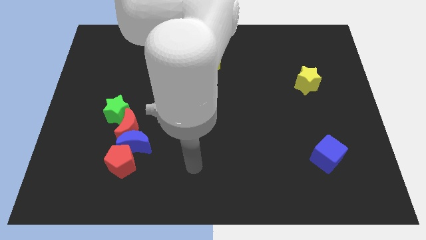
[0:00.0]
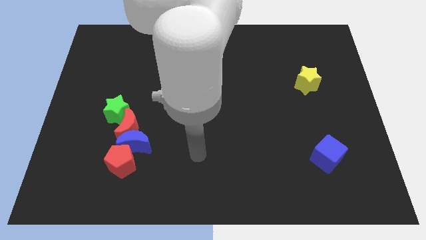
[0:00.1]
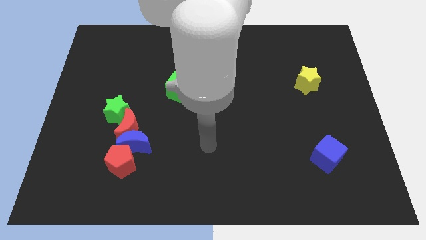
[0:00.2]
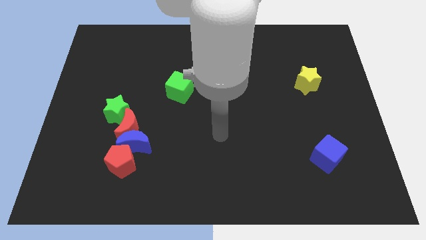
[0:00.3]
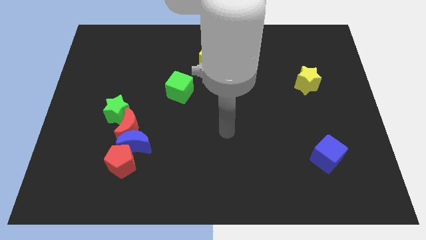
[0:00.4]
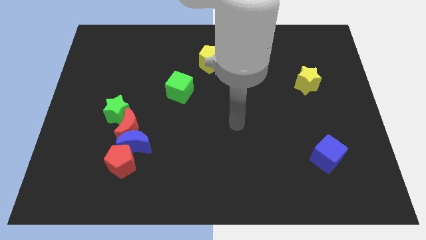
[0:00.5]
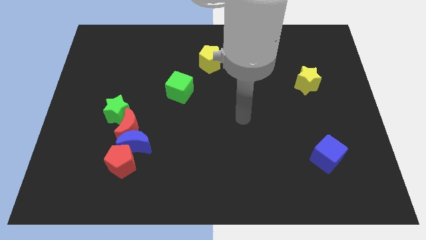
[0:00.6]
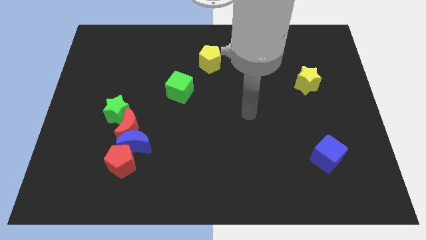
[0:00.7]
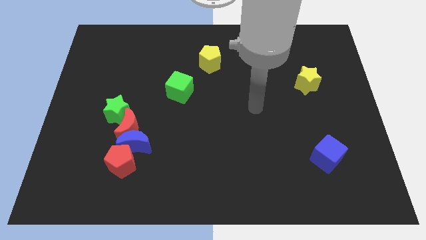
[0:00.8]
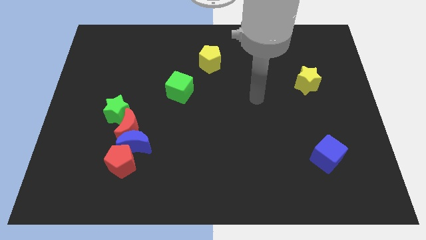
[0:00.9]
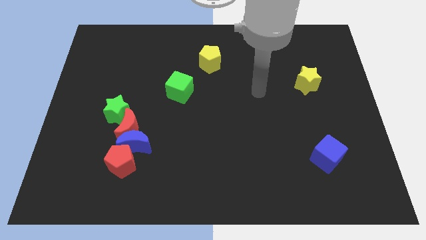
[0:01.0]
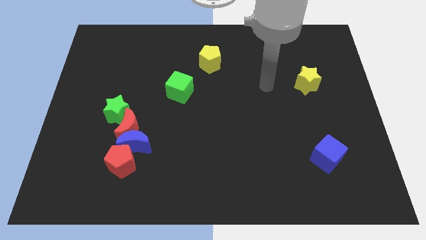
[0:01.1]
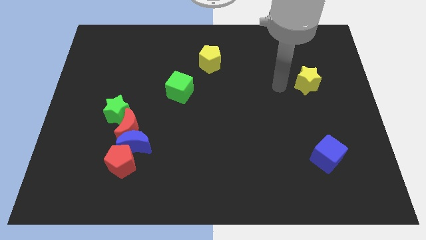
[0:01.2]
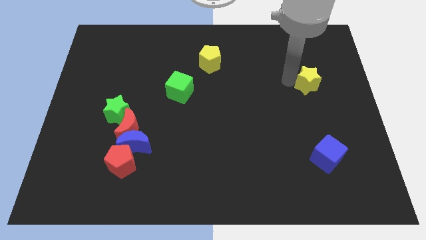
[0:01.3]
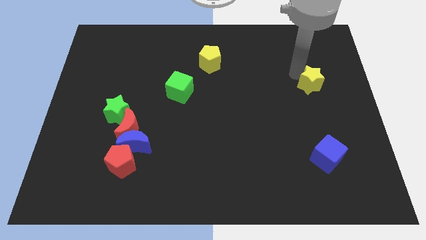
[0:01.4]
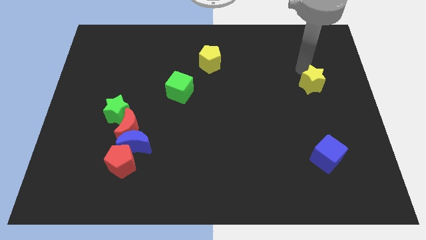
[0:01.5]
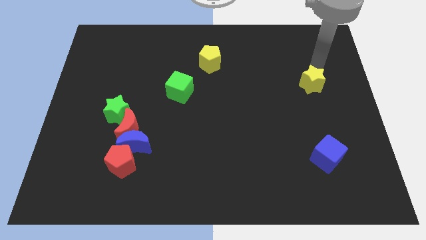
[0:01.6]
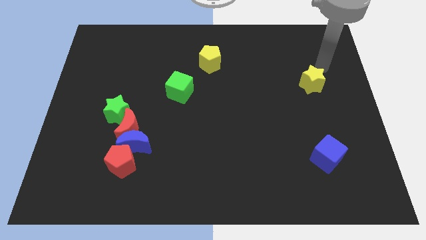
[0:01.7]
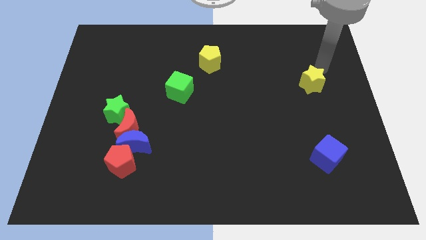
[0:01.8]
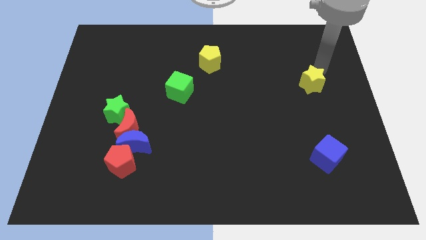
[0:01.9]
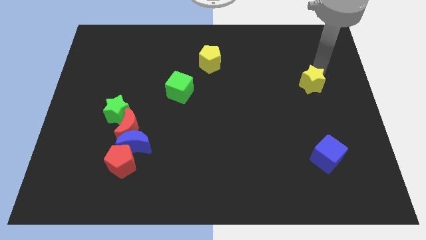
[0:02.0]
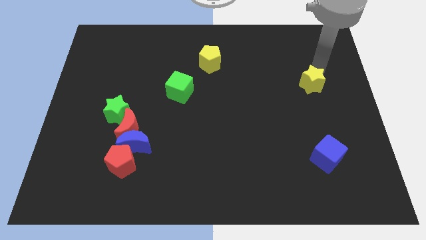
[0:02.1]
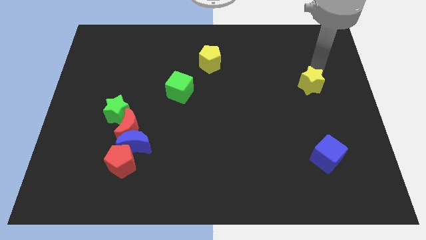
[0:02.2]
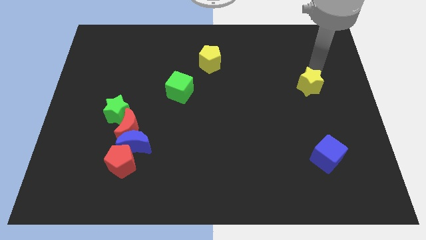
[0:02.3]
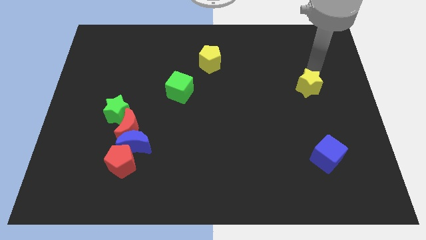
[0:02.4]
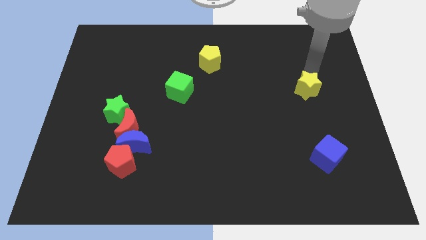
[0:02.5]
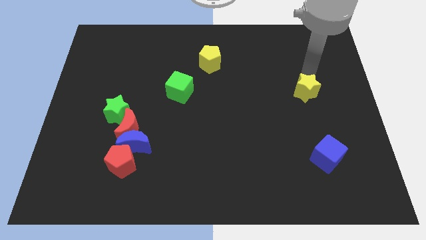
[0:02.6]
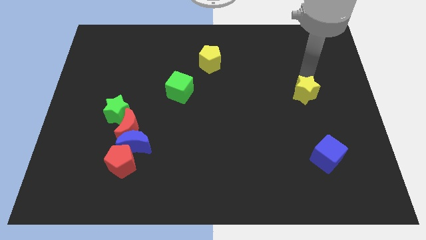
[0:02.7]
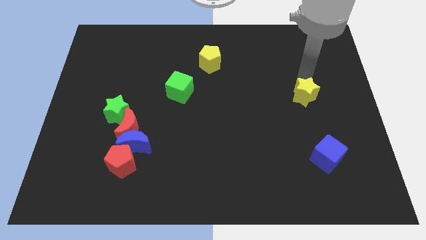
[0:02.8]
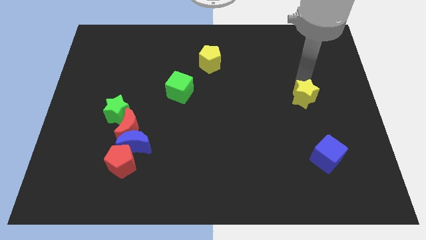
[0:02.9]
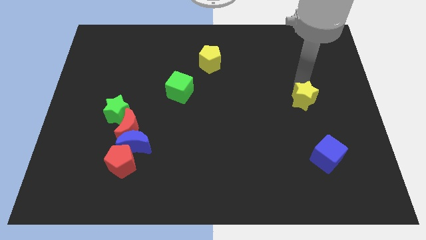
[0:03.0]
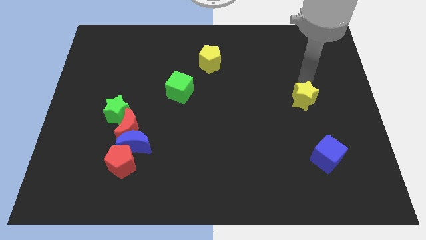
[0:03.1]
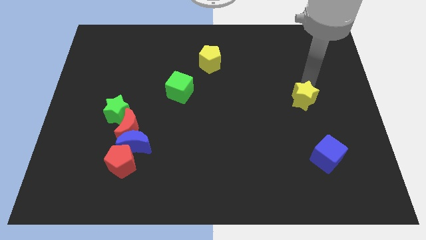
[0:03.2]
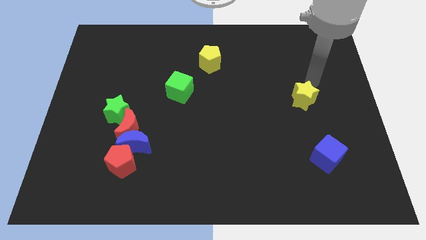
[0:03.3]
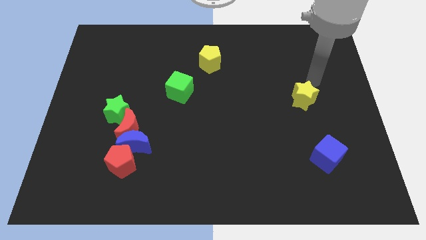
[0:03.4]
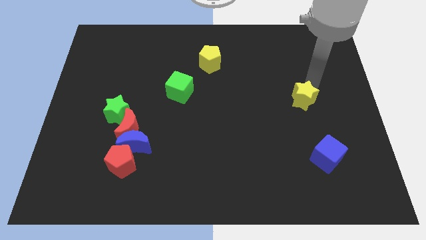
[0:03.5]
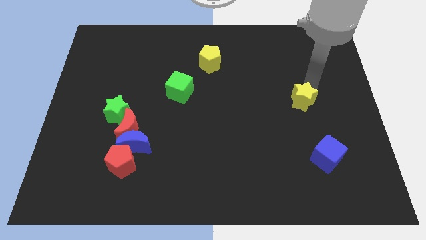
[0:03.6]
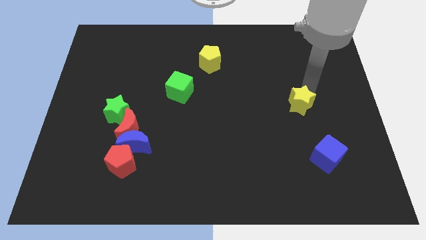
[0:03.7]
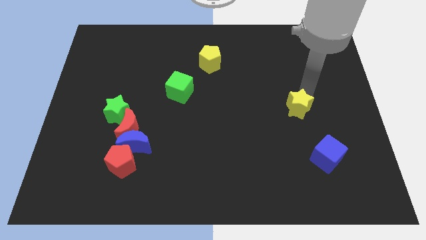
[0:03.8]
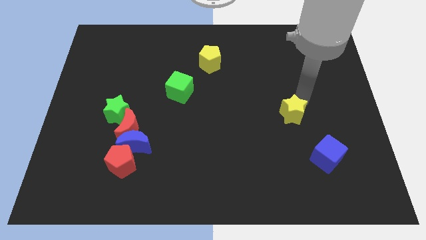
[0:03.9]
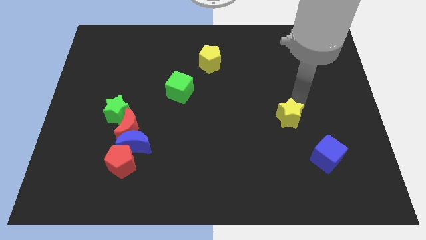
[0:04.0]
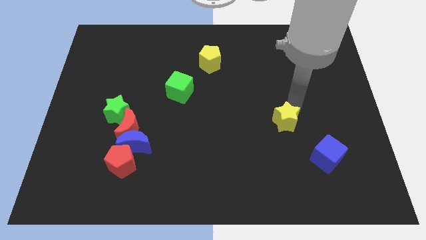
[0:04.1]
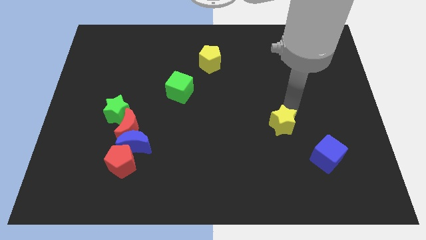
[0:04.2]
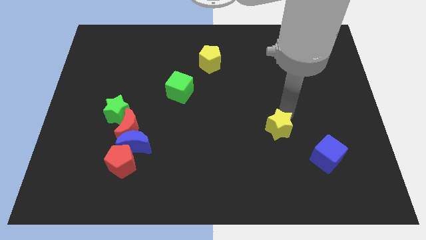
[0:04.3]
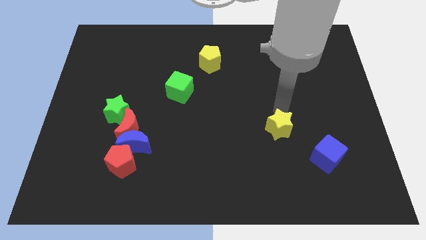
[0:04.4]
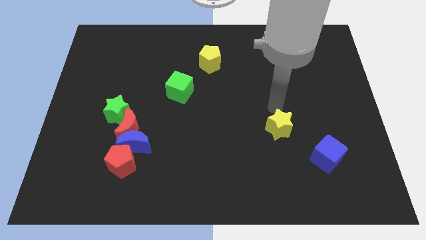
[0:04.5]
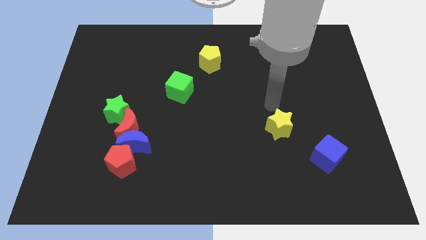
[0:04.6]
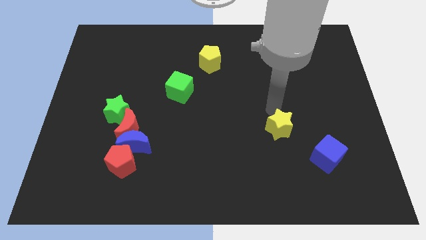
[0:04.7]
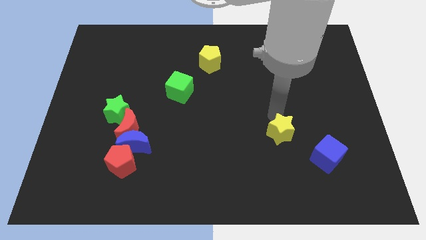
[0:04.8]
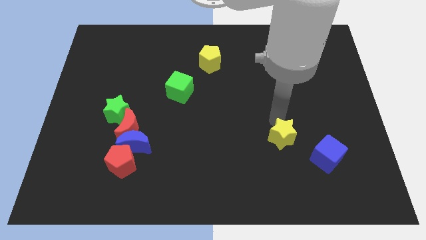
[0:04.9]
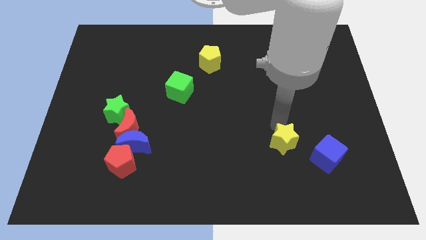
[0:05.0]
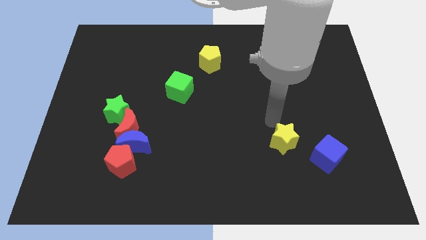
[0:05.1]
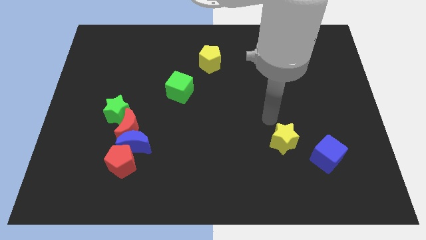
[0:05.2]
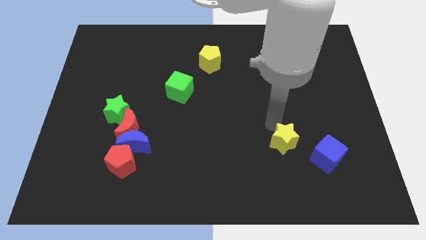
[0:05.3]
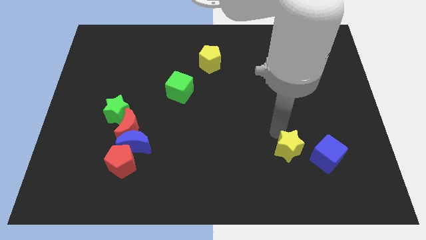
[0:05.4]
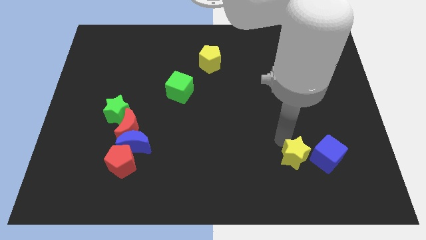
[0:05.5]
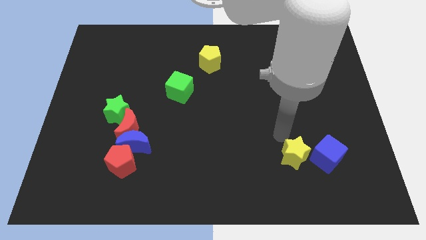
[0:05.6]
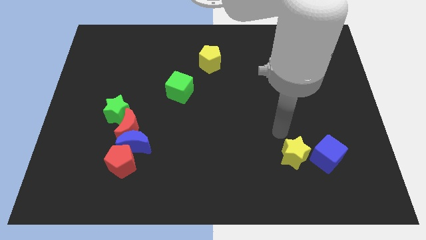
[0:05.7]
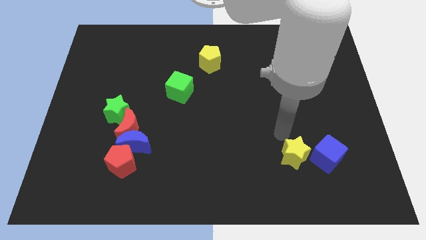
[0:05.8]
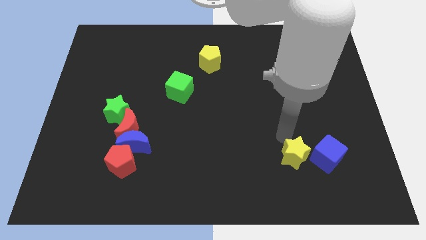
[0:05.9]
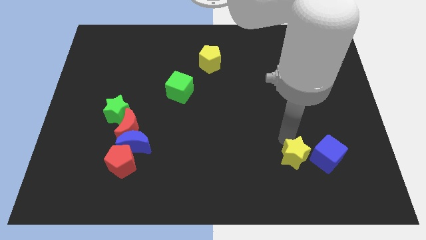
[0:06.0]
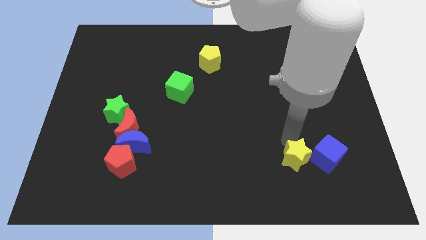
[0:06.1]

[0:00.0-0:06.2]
put the yellow star to the bottom left of the blue cube

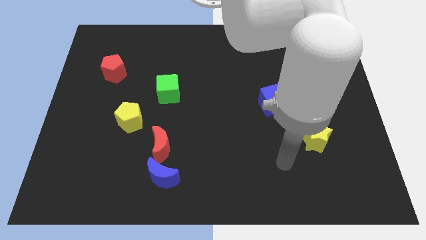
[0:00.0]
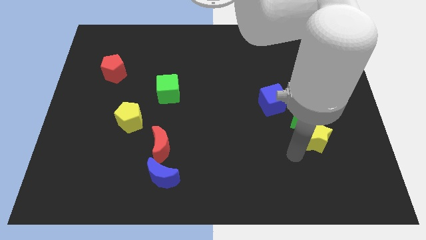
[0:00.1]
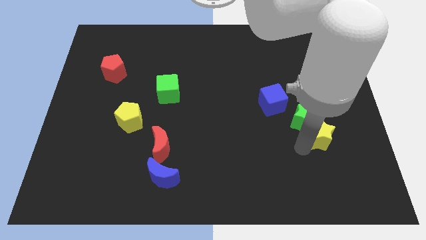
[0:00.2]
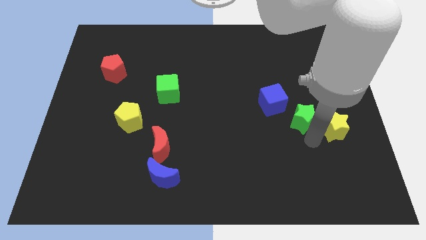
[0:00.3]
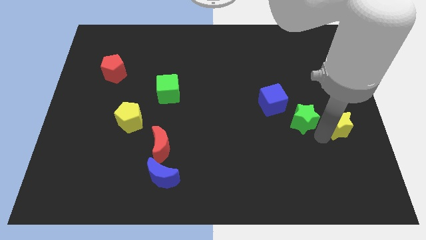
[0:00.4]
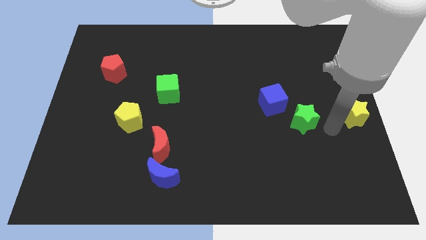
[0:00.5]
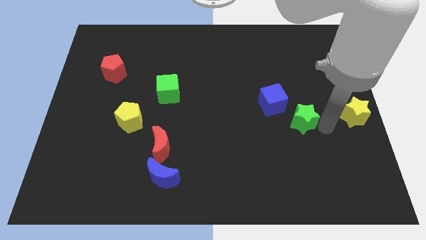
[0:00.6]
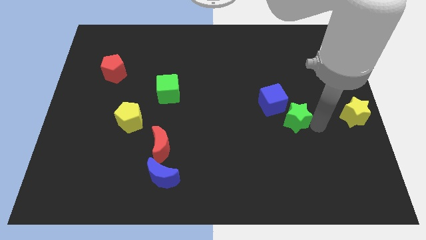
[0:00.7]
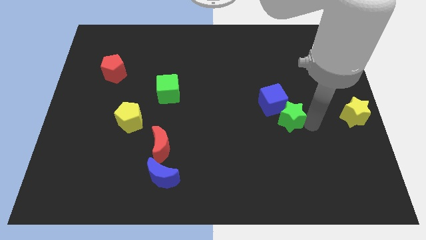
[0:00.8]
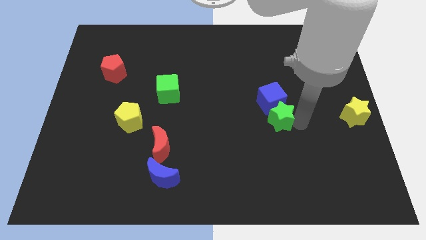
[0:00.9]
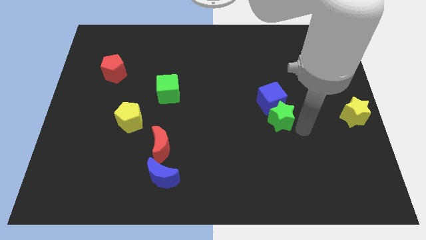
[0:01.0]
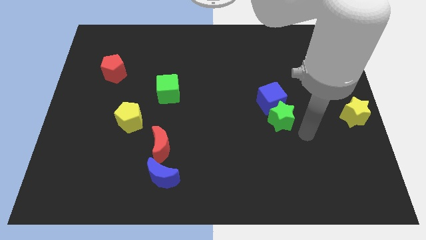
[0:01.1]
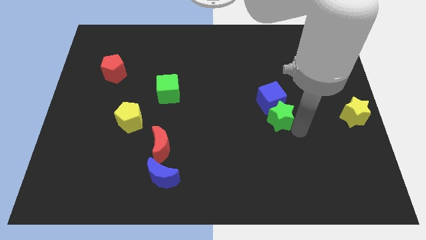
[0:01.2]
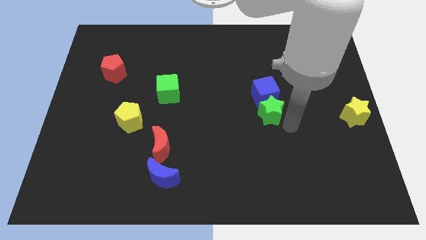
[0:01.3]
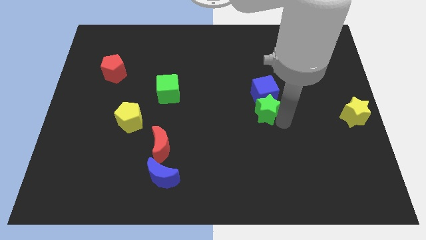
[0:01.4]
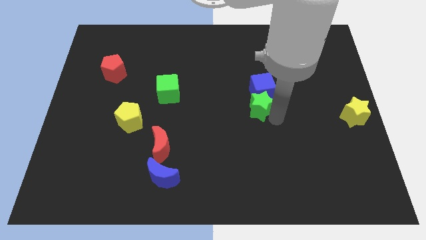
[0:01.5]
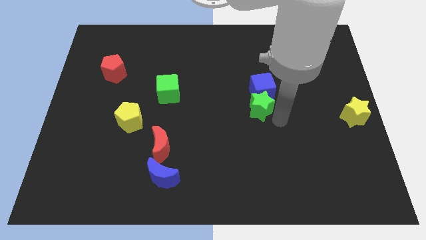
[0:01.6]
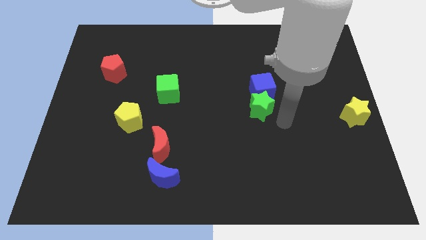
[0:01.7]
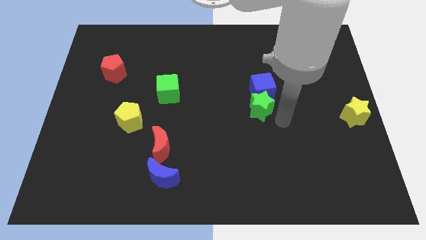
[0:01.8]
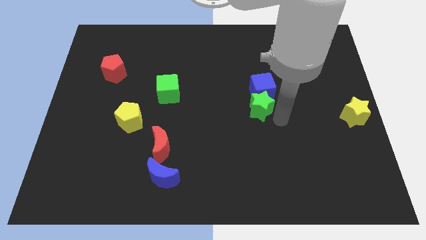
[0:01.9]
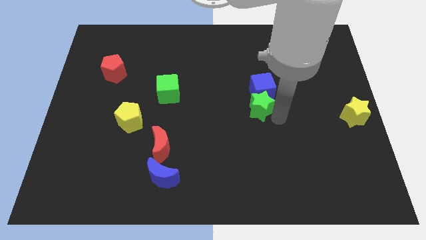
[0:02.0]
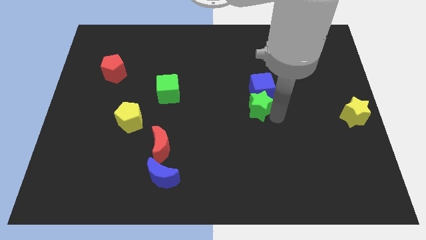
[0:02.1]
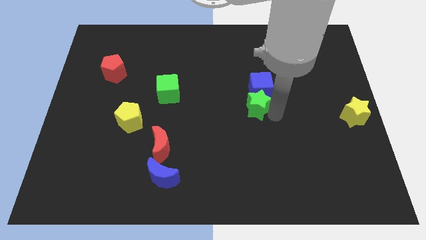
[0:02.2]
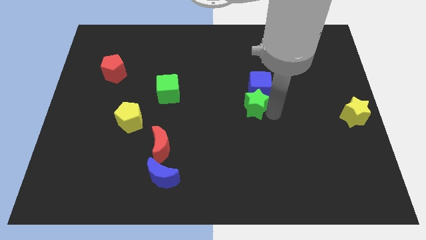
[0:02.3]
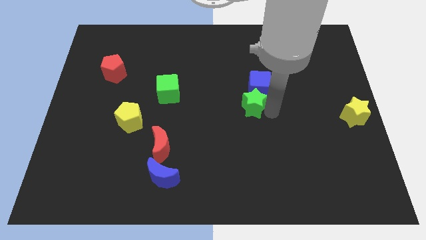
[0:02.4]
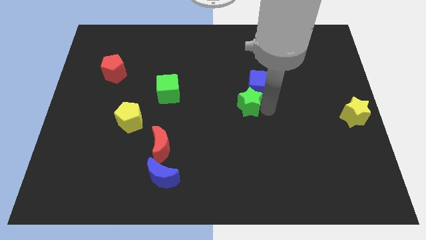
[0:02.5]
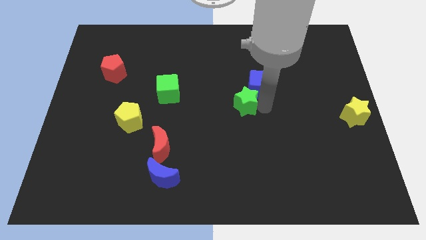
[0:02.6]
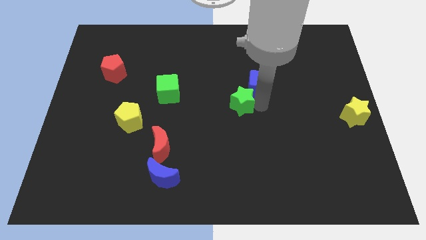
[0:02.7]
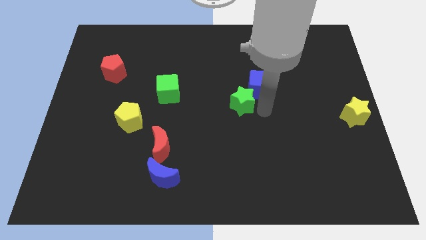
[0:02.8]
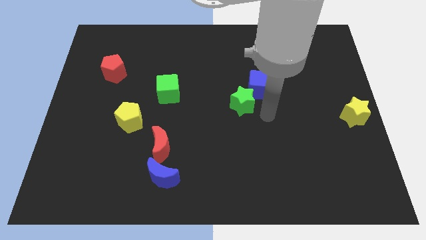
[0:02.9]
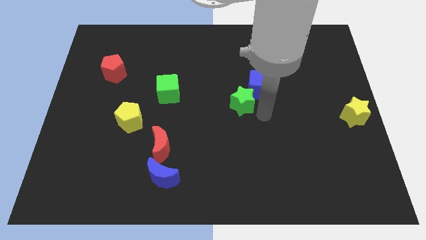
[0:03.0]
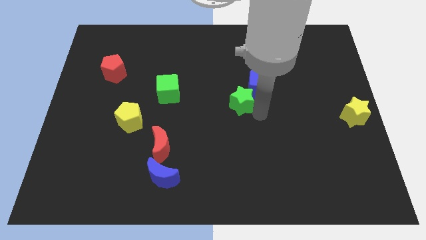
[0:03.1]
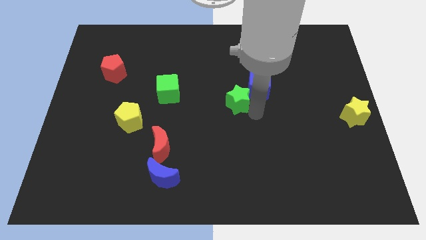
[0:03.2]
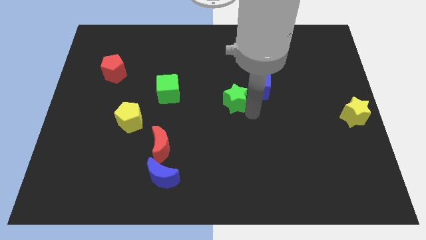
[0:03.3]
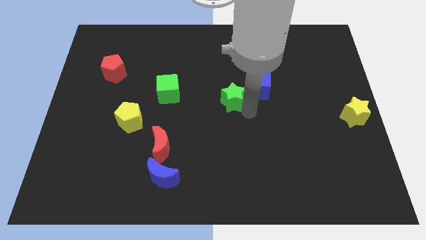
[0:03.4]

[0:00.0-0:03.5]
slide the green star to the right of the green cube
